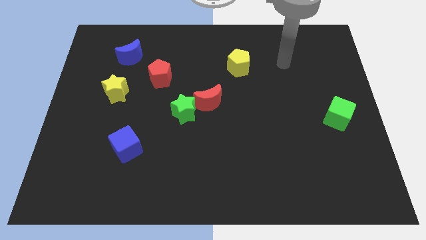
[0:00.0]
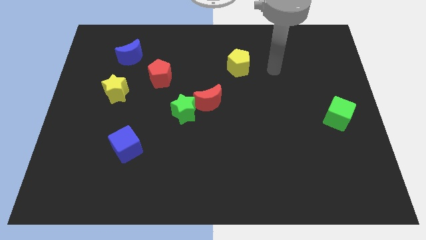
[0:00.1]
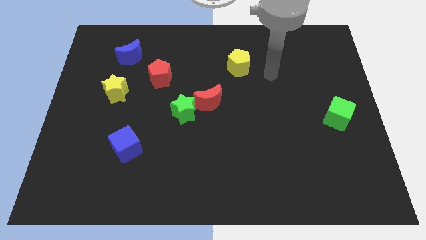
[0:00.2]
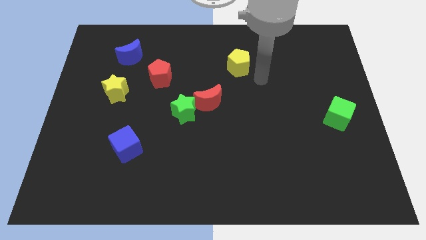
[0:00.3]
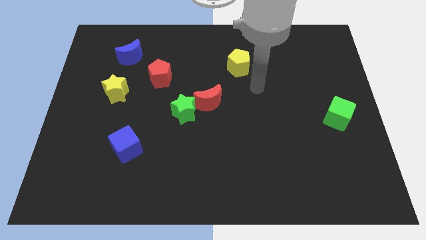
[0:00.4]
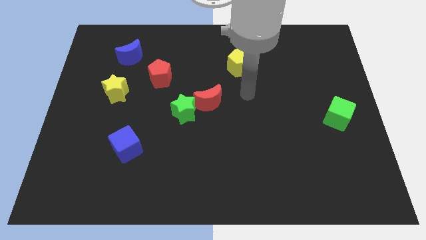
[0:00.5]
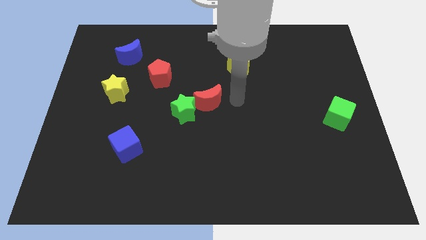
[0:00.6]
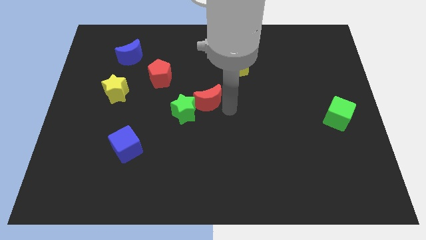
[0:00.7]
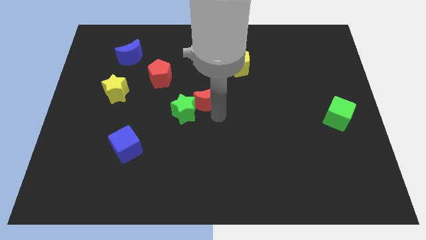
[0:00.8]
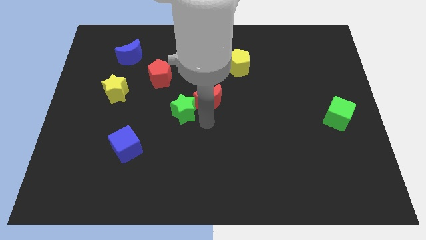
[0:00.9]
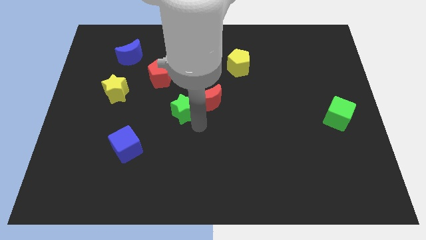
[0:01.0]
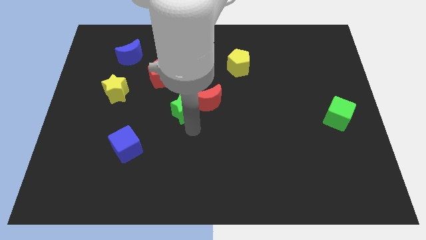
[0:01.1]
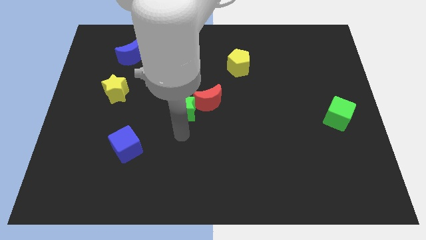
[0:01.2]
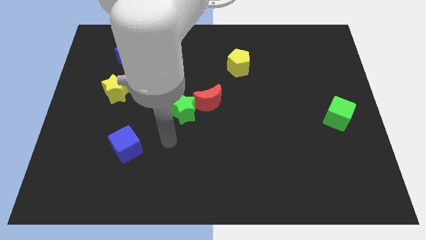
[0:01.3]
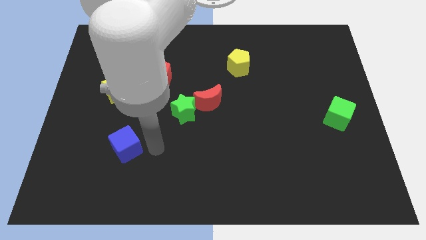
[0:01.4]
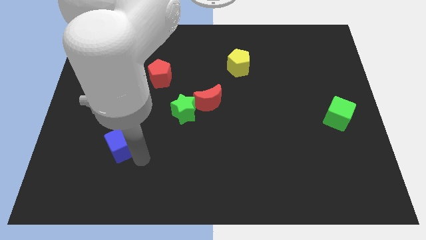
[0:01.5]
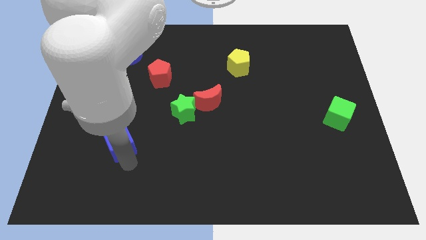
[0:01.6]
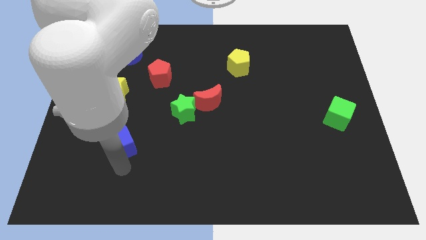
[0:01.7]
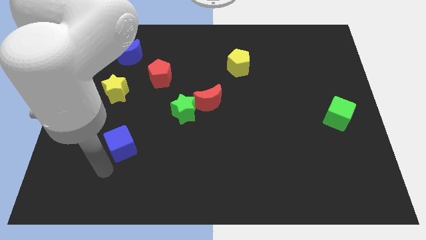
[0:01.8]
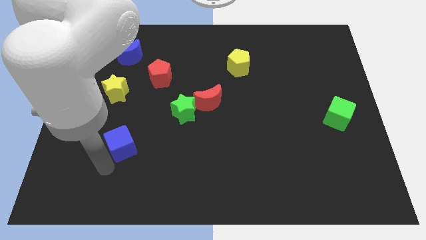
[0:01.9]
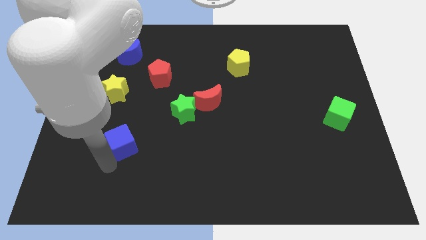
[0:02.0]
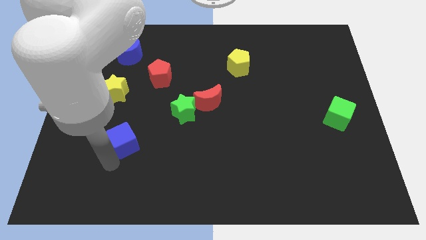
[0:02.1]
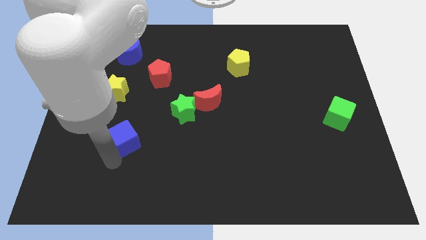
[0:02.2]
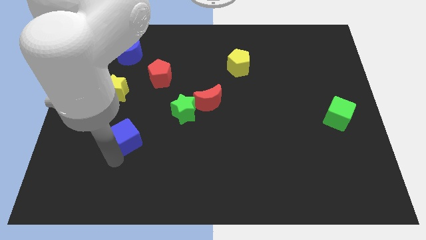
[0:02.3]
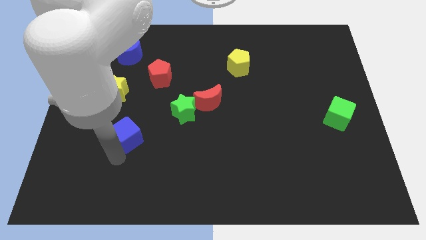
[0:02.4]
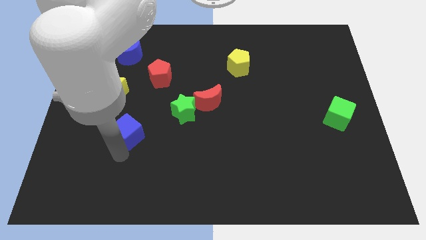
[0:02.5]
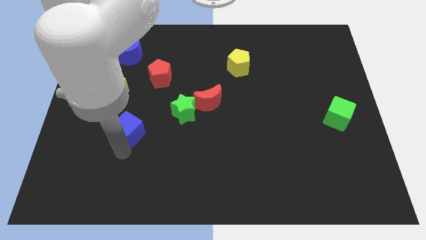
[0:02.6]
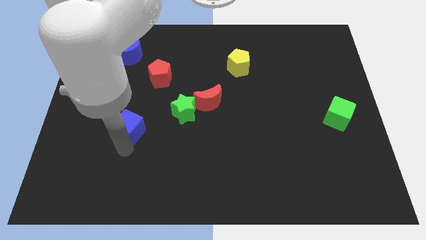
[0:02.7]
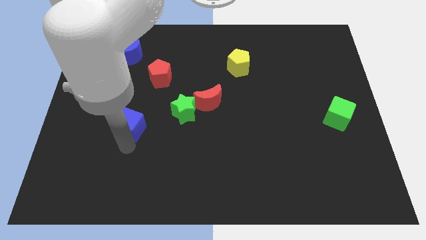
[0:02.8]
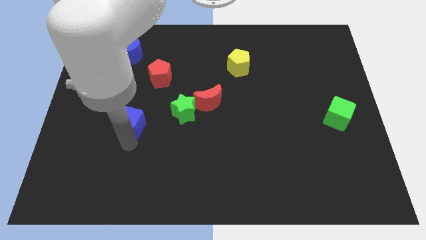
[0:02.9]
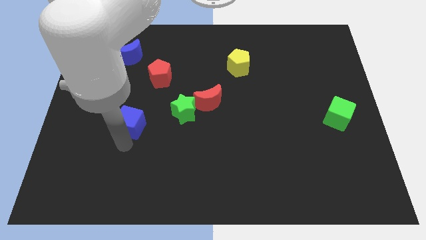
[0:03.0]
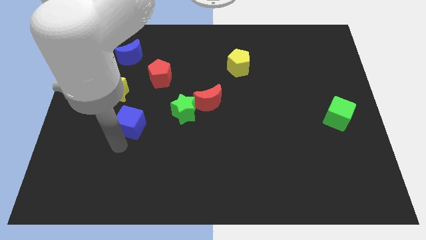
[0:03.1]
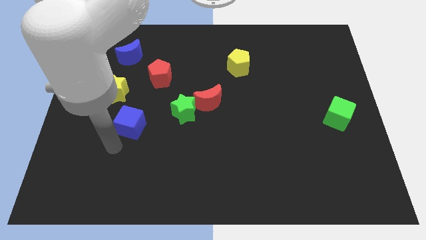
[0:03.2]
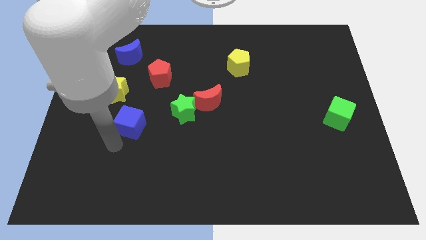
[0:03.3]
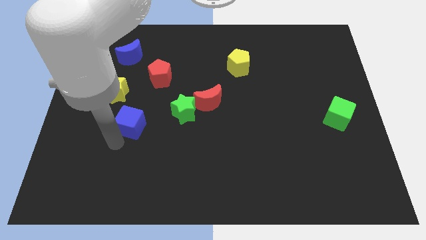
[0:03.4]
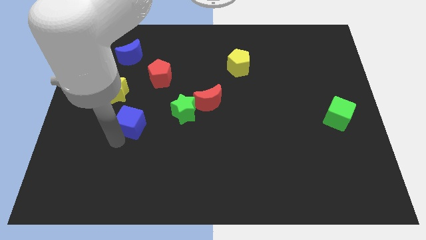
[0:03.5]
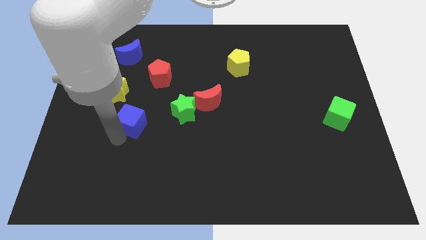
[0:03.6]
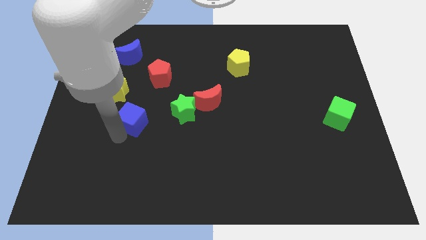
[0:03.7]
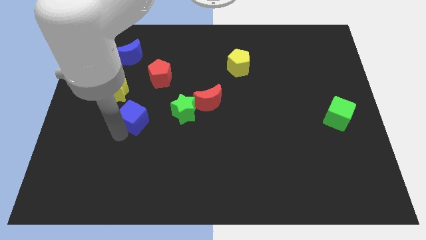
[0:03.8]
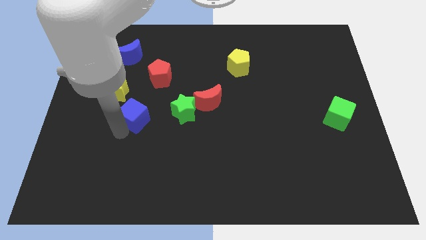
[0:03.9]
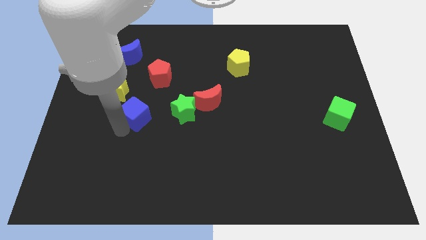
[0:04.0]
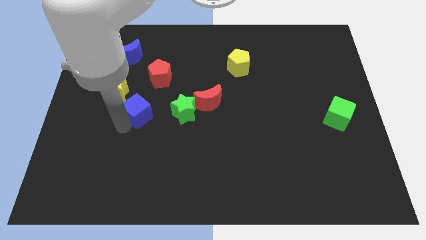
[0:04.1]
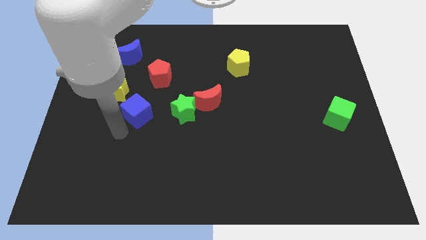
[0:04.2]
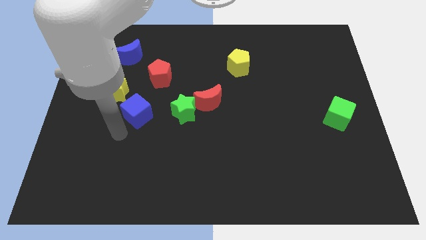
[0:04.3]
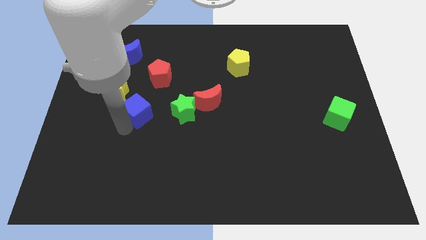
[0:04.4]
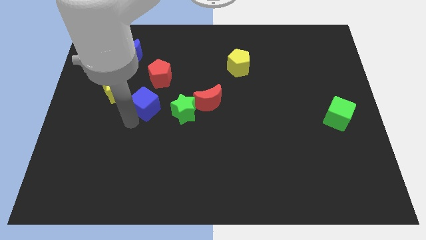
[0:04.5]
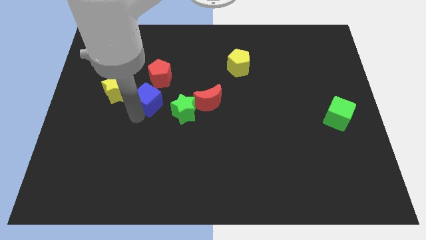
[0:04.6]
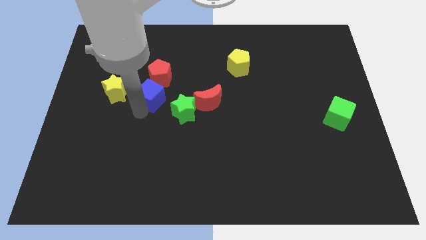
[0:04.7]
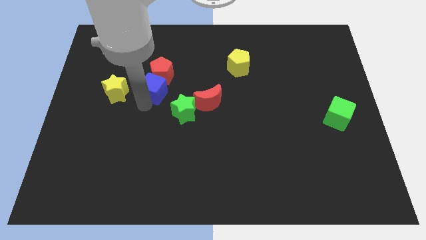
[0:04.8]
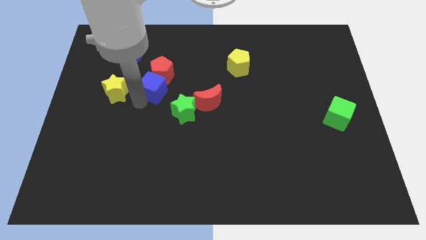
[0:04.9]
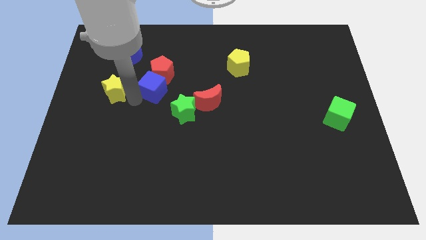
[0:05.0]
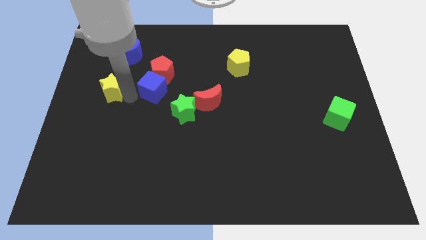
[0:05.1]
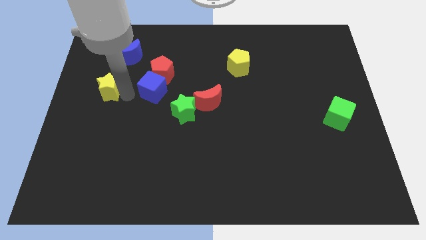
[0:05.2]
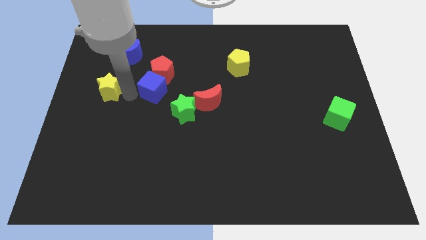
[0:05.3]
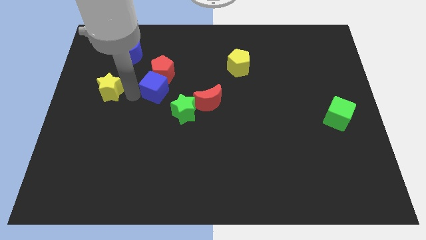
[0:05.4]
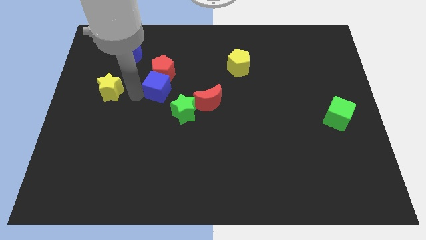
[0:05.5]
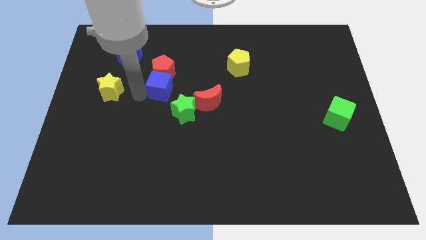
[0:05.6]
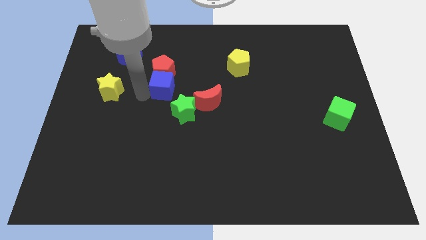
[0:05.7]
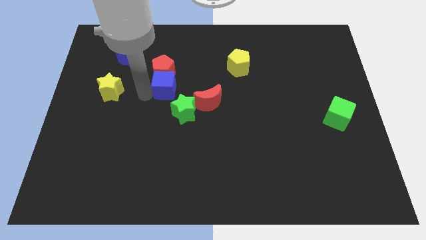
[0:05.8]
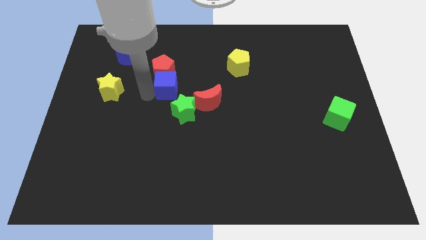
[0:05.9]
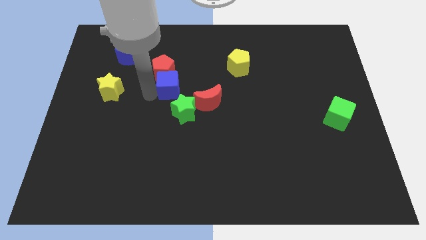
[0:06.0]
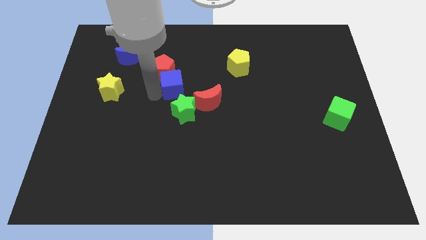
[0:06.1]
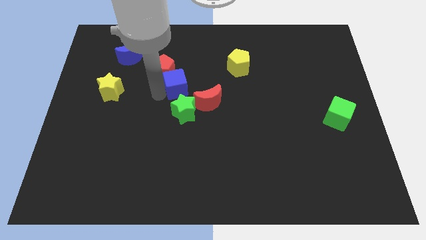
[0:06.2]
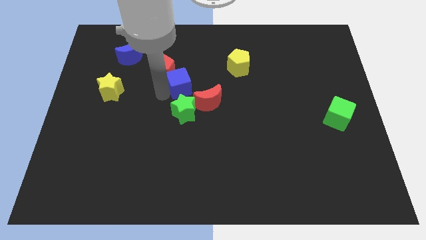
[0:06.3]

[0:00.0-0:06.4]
put the blue cube right of the red pentagon

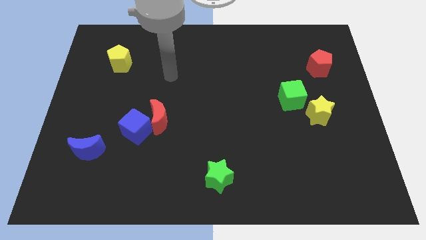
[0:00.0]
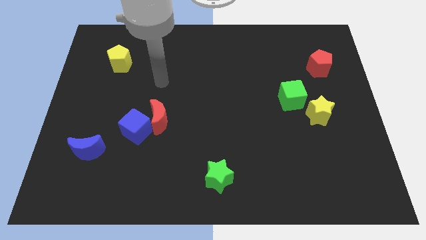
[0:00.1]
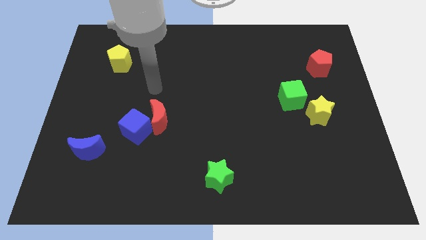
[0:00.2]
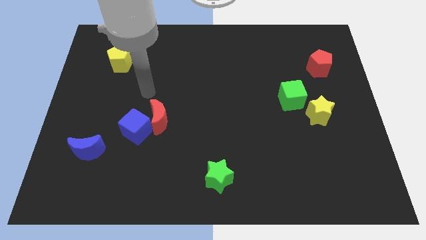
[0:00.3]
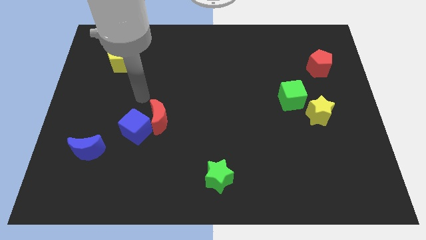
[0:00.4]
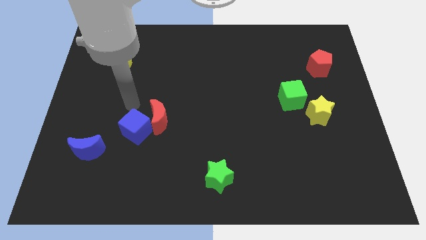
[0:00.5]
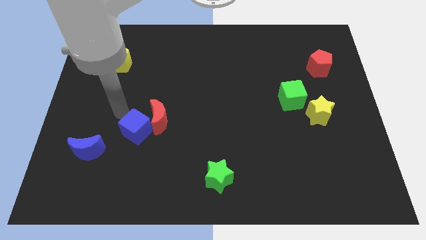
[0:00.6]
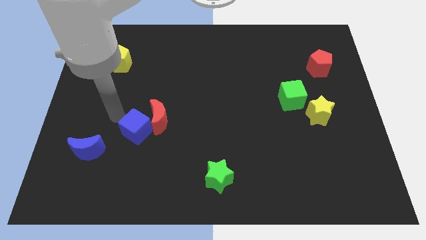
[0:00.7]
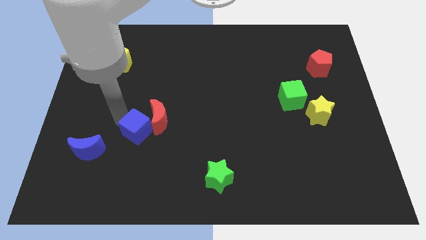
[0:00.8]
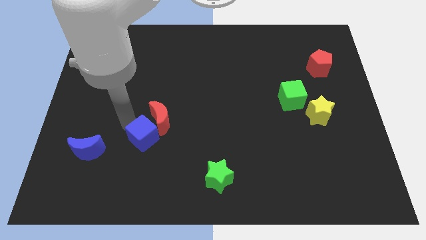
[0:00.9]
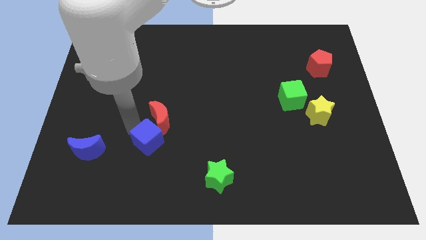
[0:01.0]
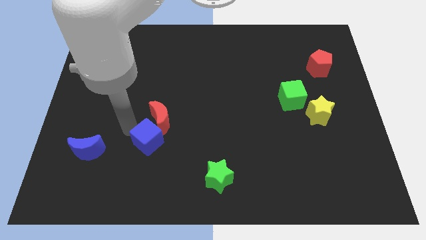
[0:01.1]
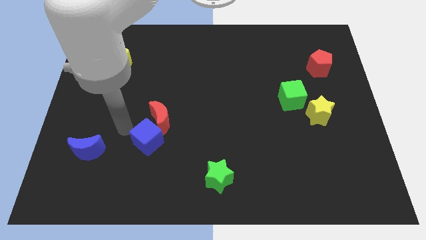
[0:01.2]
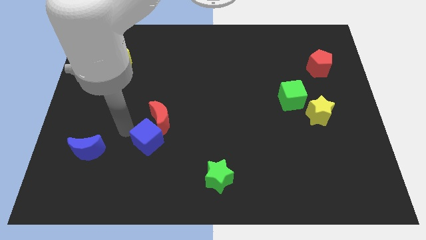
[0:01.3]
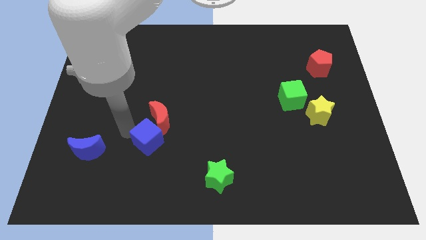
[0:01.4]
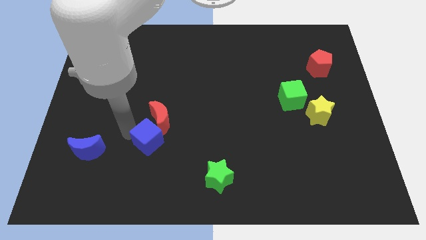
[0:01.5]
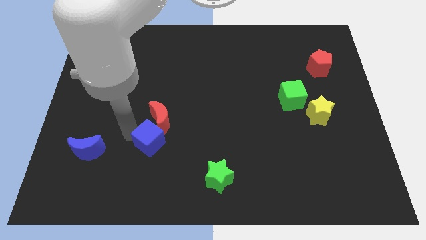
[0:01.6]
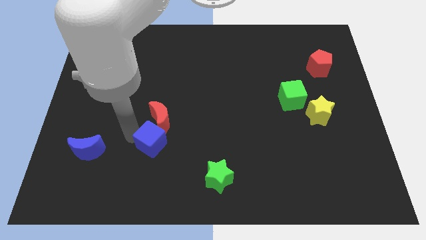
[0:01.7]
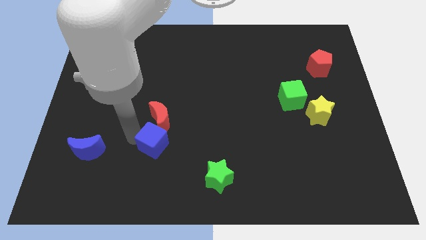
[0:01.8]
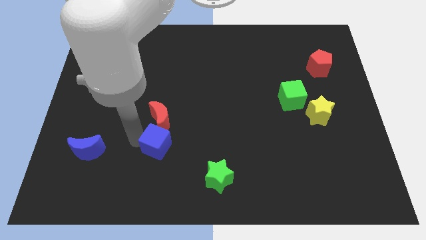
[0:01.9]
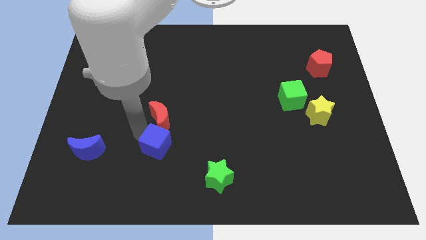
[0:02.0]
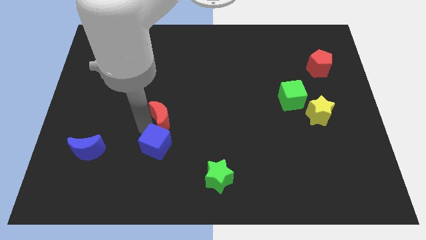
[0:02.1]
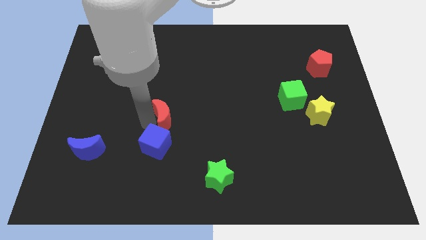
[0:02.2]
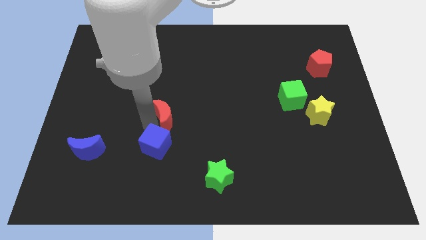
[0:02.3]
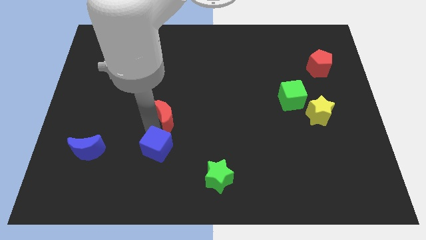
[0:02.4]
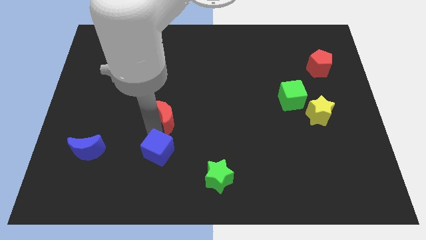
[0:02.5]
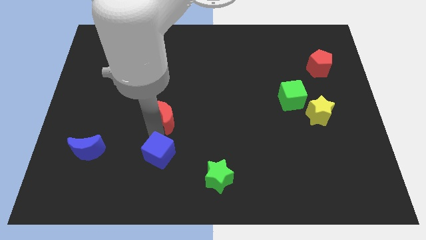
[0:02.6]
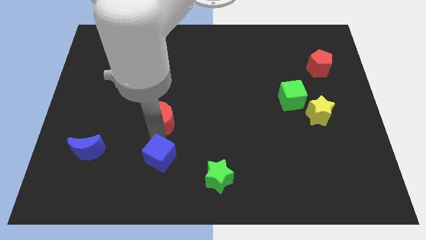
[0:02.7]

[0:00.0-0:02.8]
move the blue cube left of the green star
